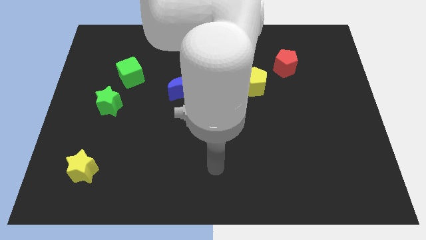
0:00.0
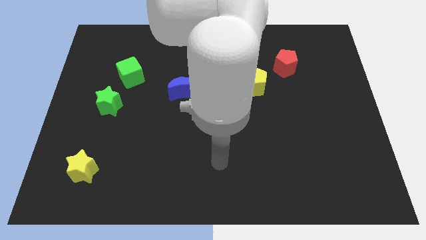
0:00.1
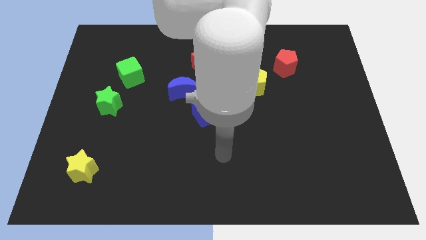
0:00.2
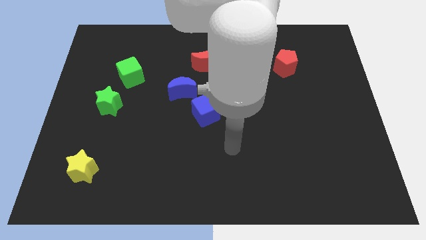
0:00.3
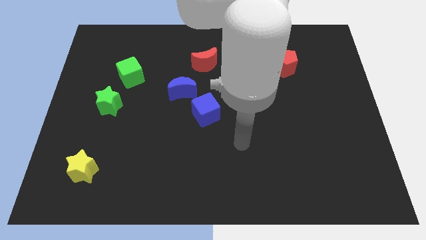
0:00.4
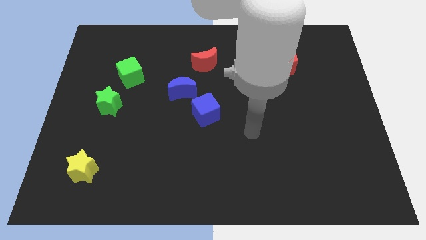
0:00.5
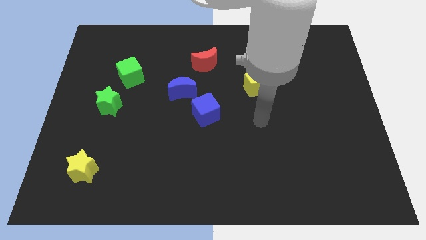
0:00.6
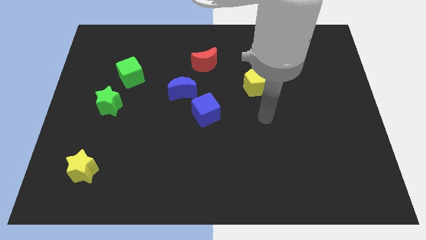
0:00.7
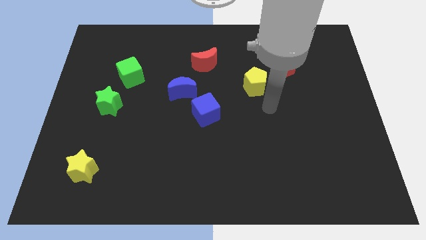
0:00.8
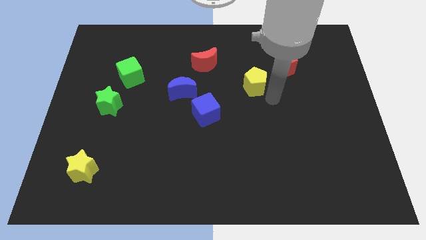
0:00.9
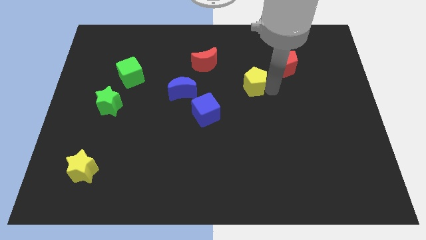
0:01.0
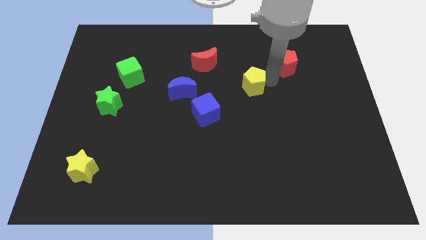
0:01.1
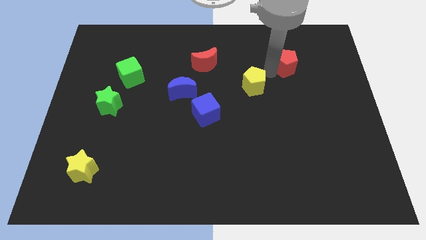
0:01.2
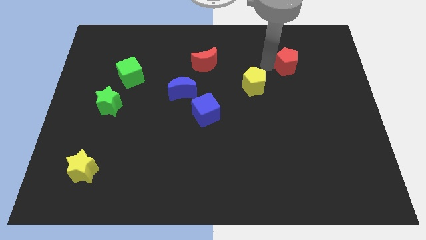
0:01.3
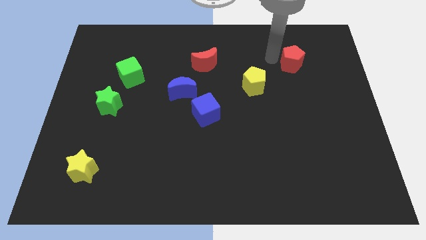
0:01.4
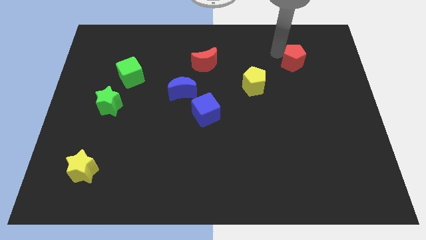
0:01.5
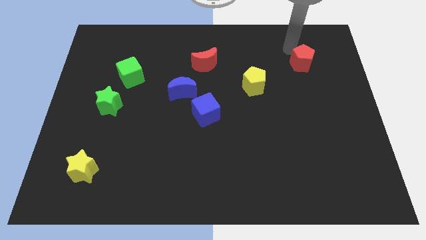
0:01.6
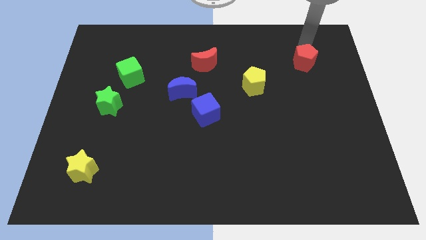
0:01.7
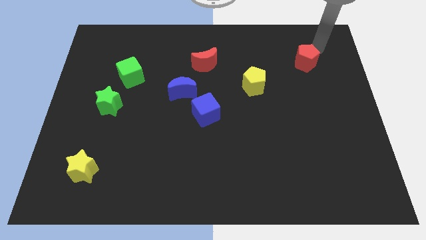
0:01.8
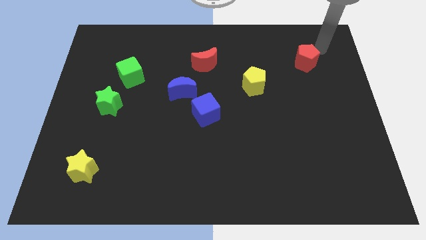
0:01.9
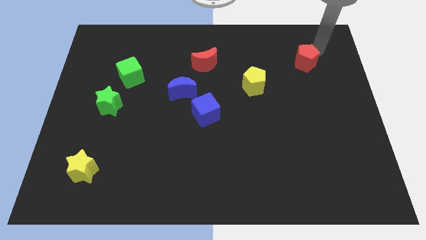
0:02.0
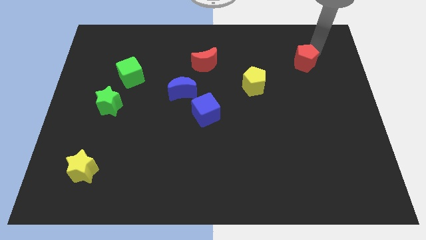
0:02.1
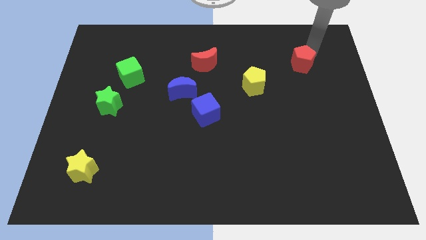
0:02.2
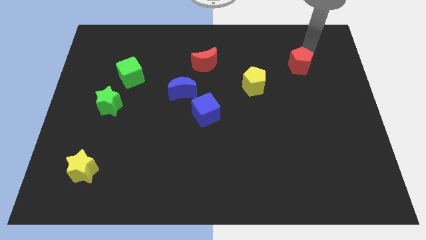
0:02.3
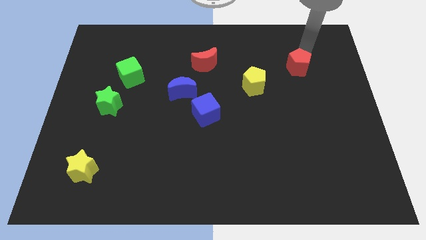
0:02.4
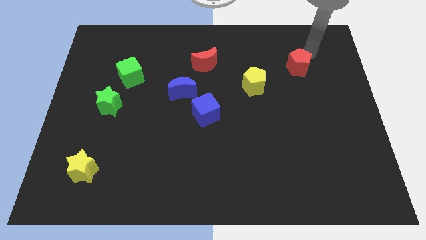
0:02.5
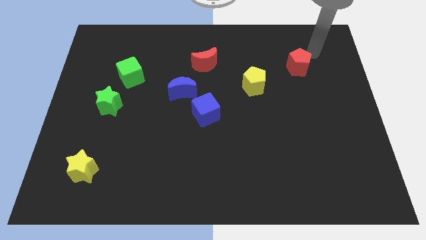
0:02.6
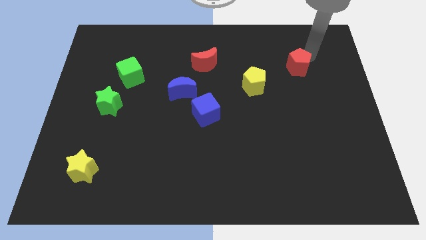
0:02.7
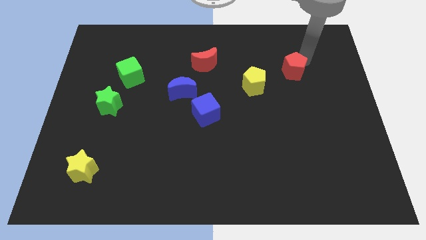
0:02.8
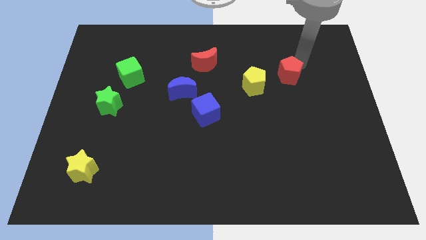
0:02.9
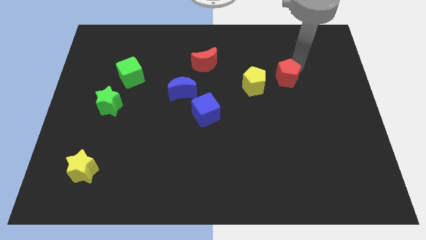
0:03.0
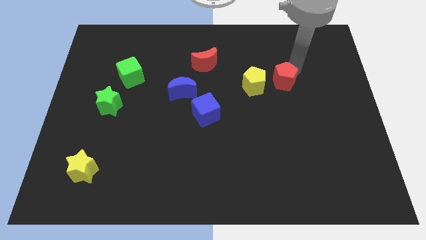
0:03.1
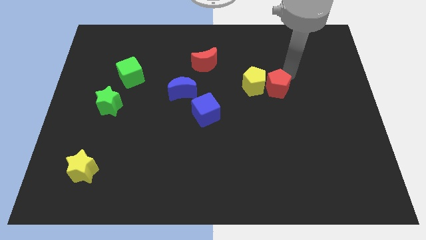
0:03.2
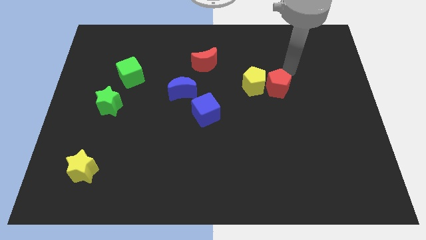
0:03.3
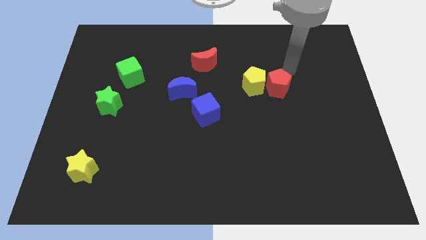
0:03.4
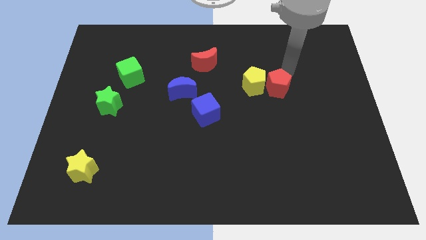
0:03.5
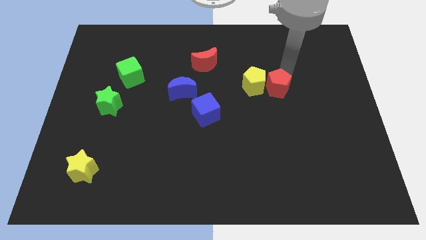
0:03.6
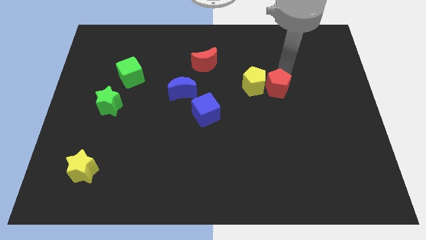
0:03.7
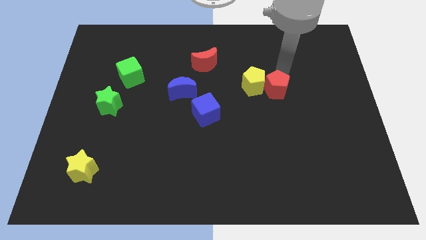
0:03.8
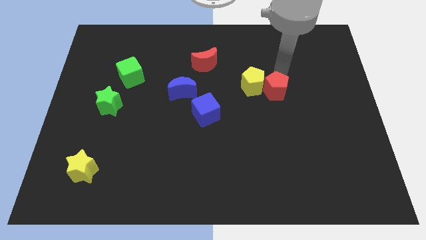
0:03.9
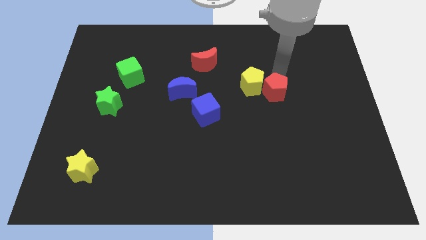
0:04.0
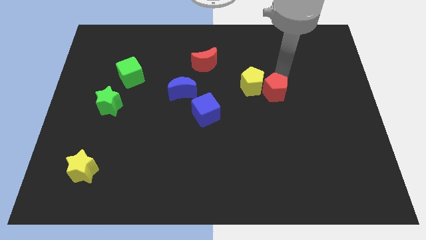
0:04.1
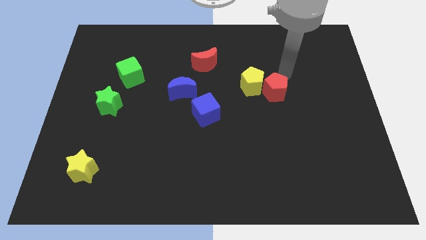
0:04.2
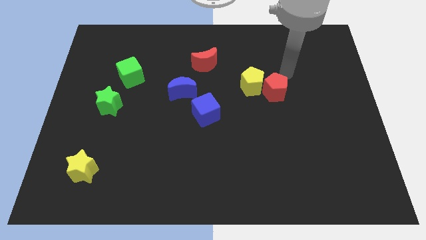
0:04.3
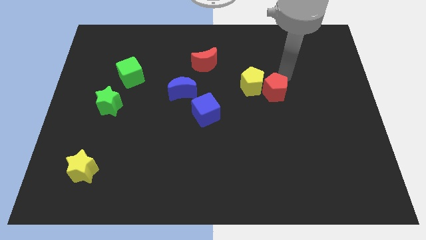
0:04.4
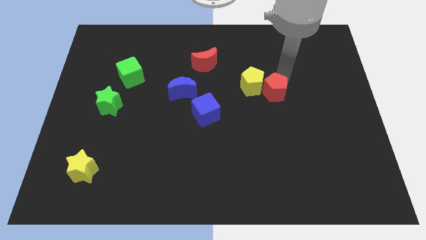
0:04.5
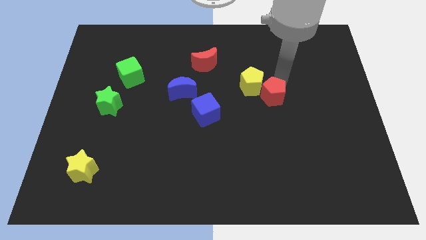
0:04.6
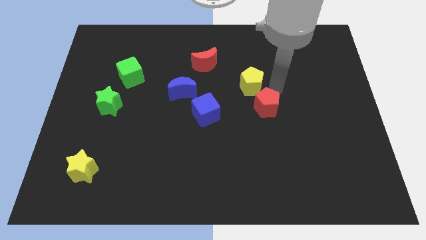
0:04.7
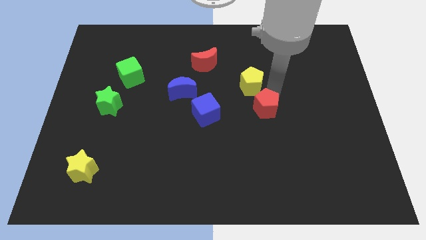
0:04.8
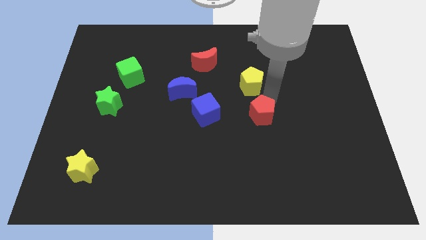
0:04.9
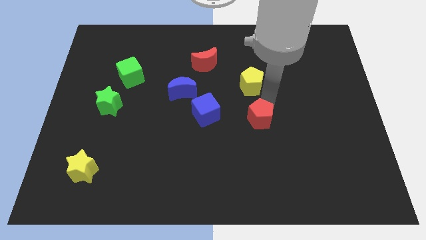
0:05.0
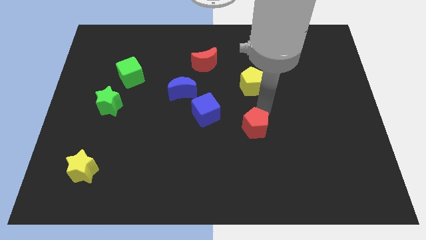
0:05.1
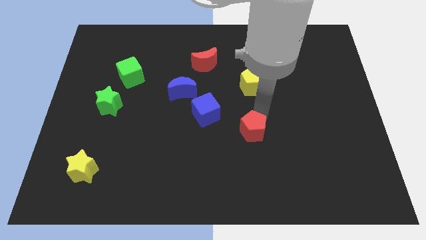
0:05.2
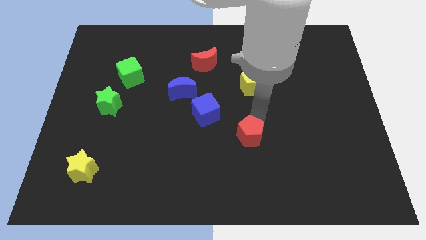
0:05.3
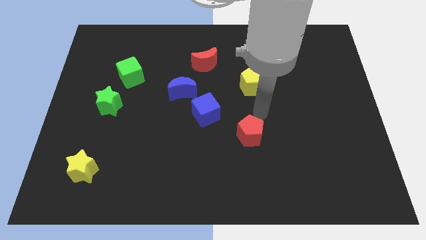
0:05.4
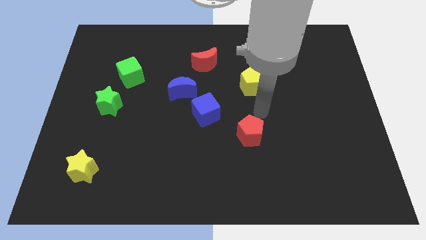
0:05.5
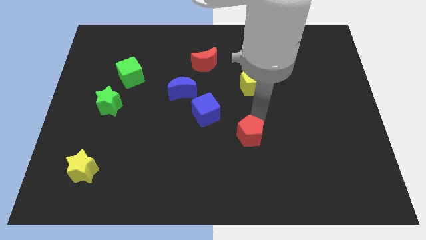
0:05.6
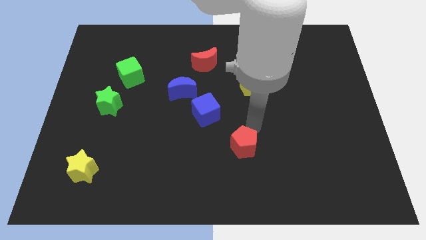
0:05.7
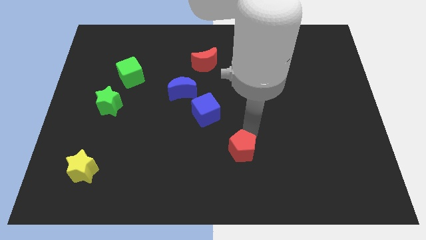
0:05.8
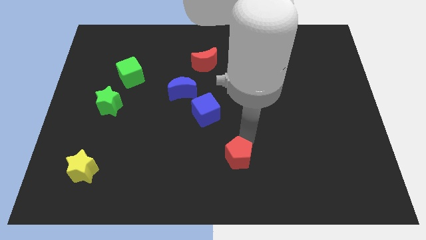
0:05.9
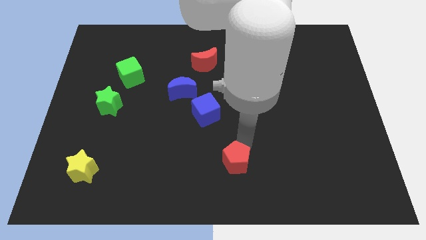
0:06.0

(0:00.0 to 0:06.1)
move the red pentagon to the bottom side

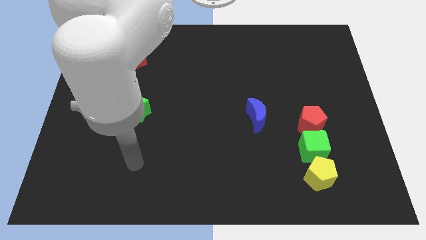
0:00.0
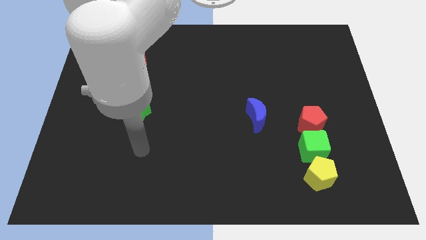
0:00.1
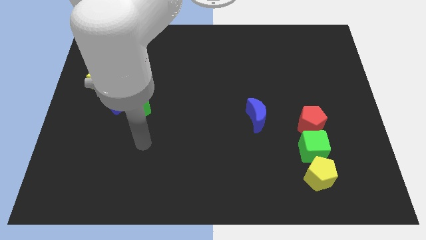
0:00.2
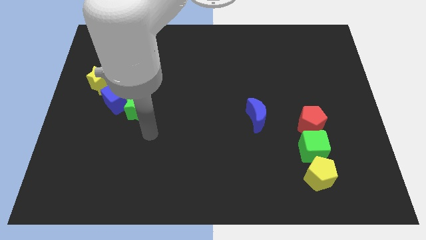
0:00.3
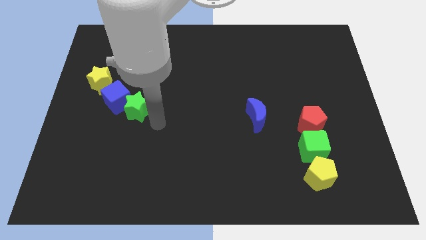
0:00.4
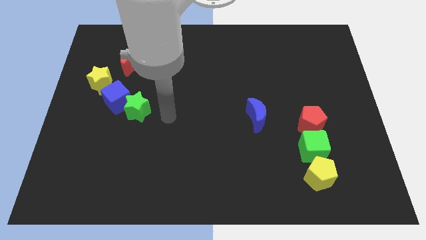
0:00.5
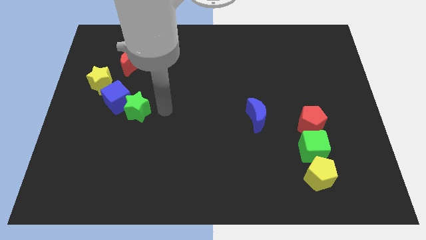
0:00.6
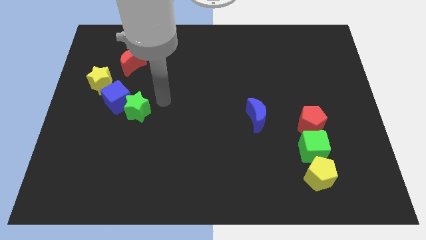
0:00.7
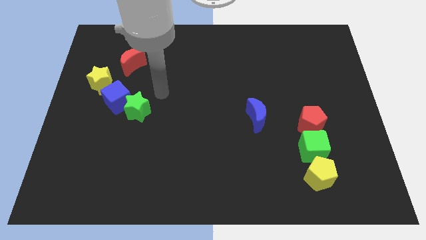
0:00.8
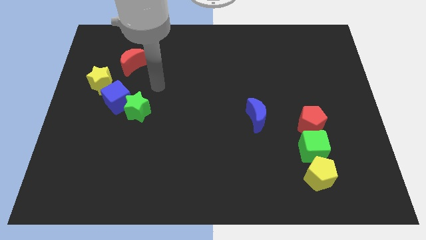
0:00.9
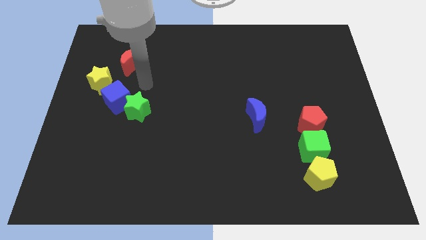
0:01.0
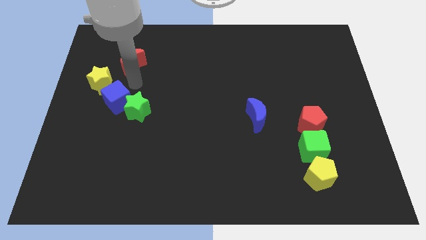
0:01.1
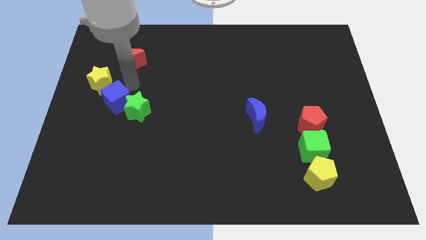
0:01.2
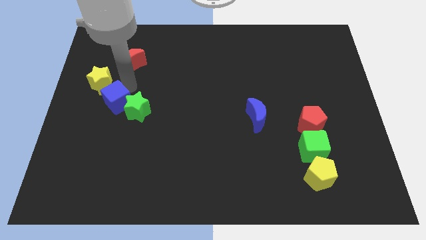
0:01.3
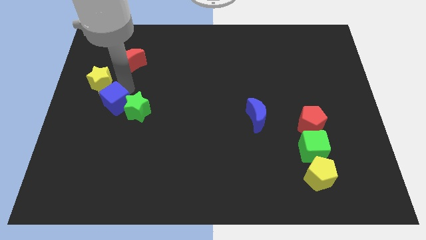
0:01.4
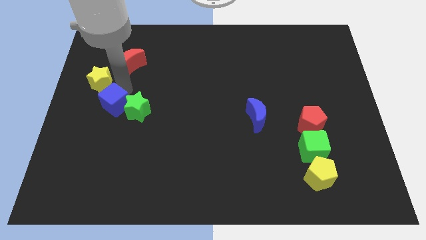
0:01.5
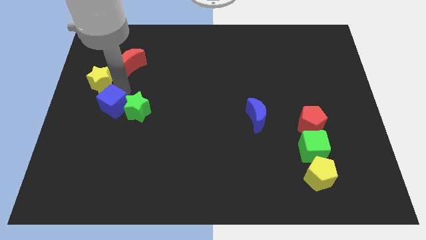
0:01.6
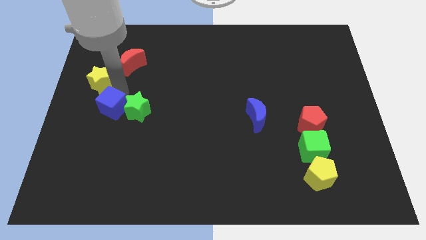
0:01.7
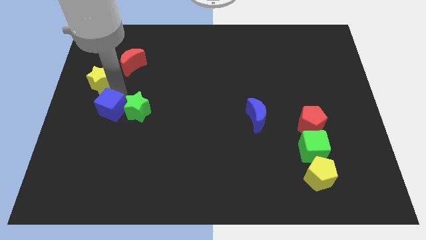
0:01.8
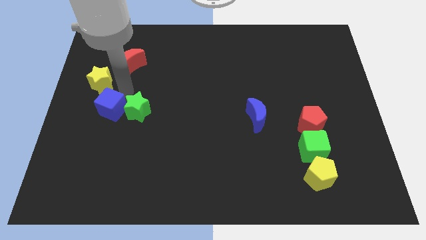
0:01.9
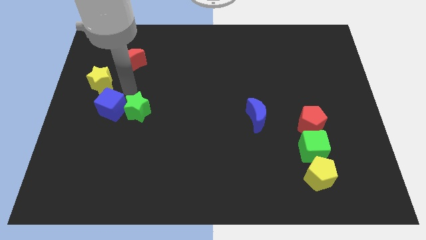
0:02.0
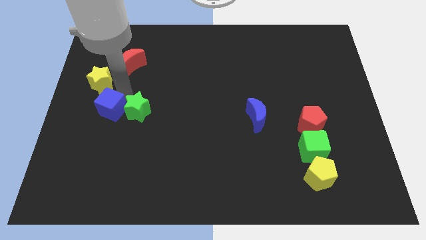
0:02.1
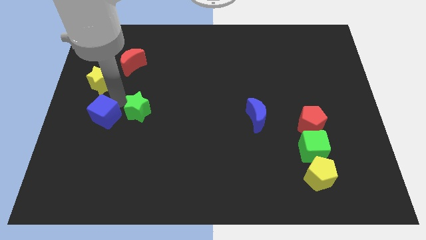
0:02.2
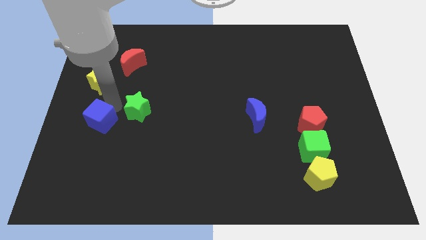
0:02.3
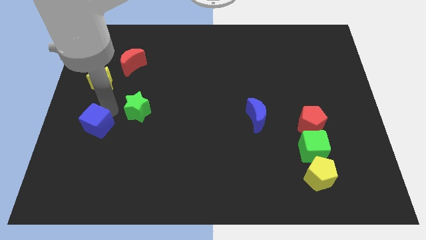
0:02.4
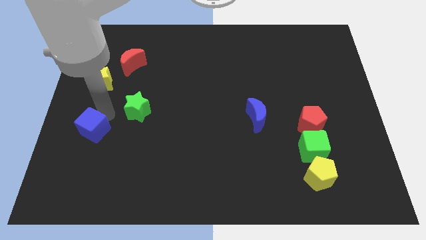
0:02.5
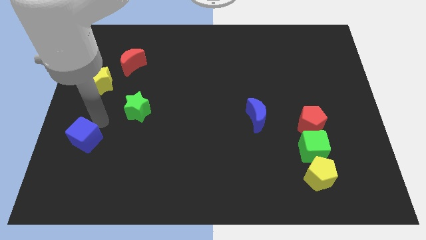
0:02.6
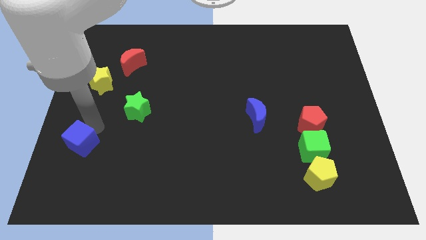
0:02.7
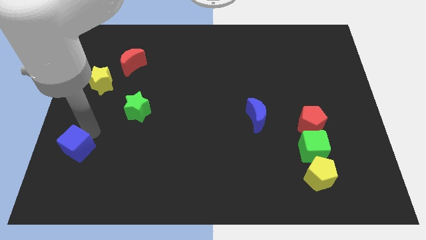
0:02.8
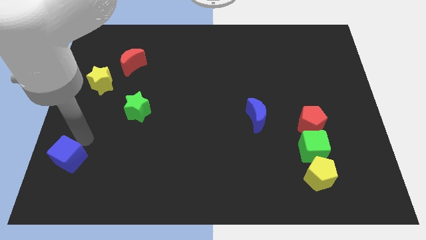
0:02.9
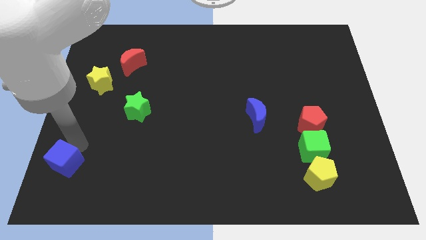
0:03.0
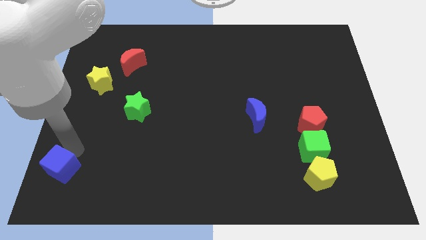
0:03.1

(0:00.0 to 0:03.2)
push the blue cube to the bottom left corner
